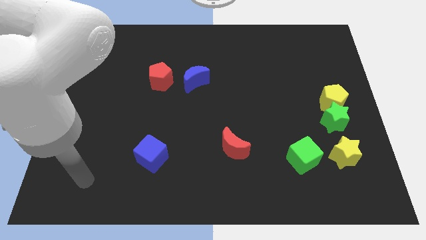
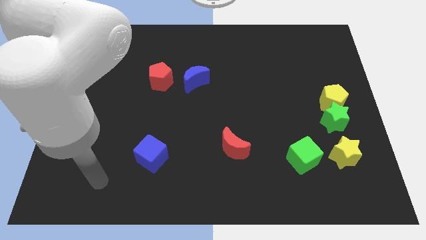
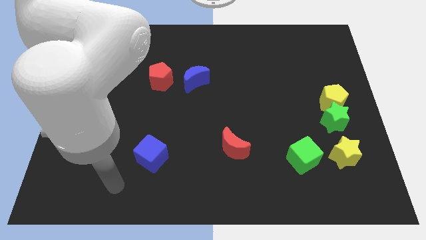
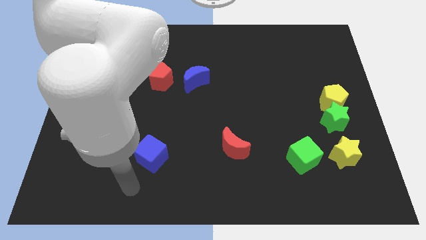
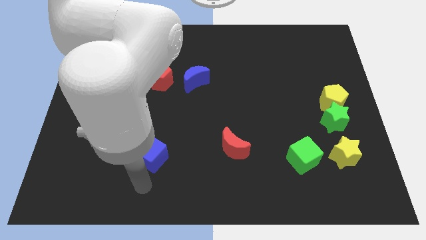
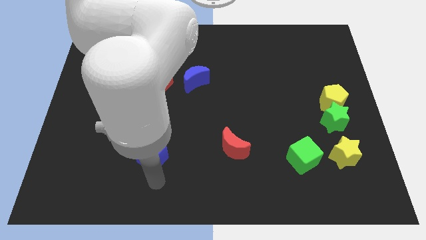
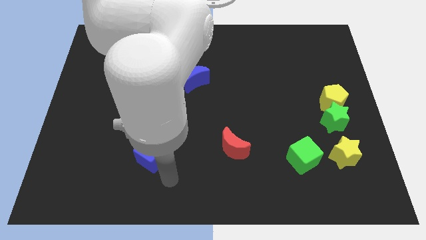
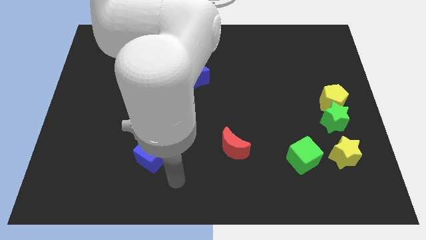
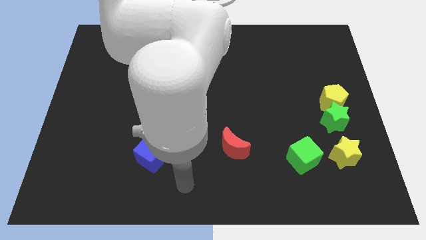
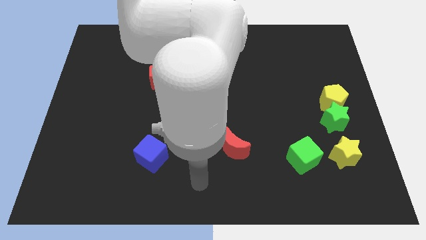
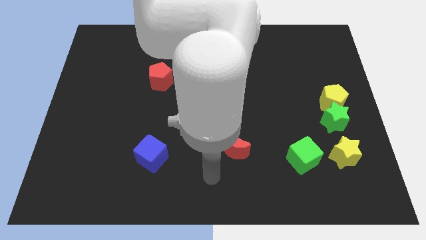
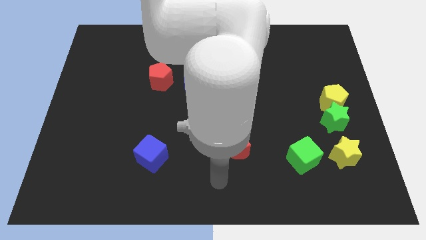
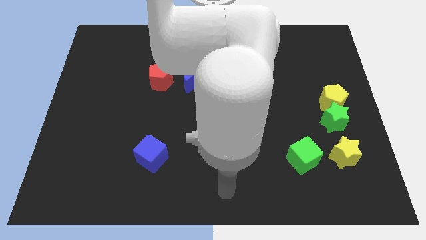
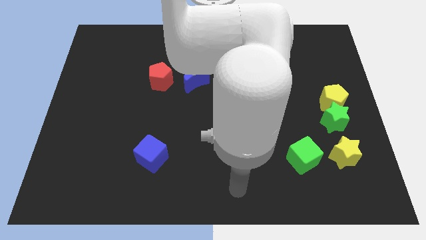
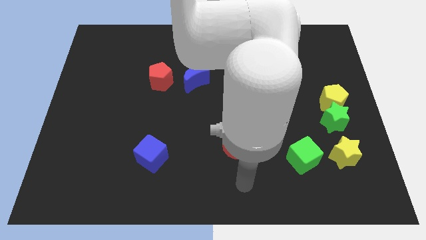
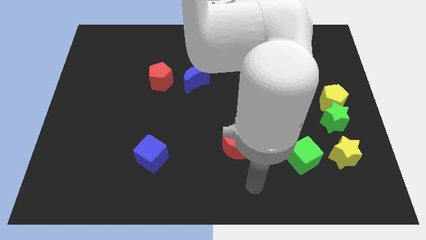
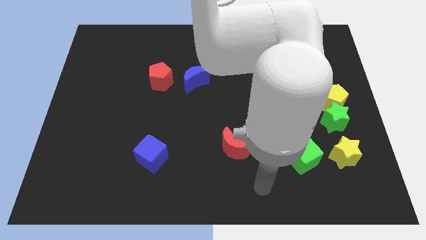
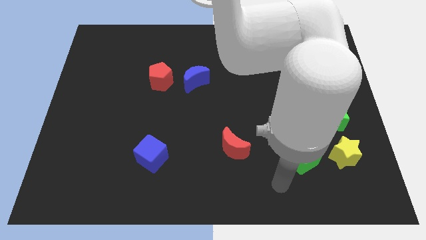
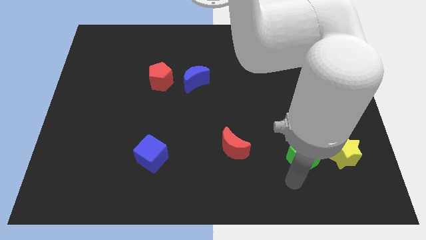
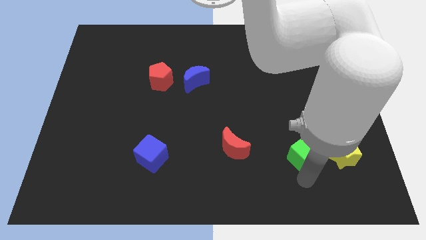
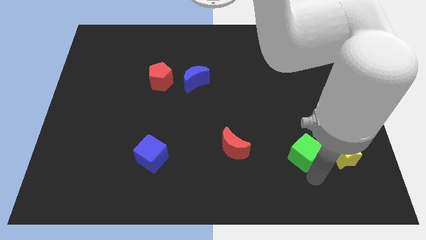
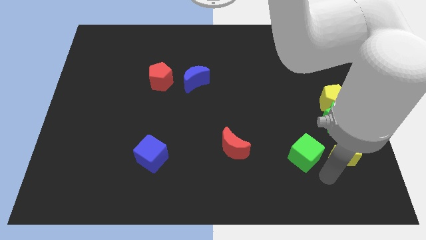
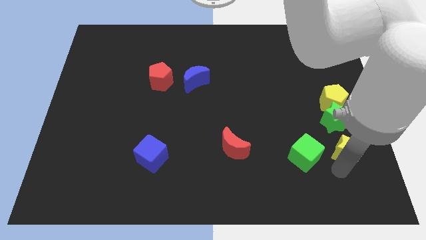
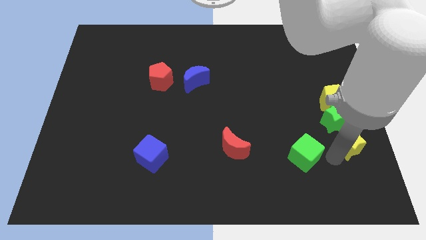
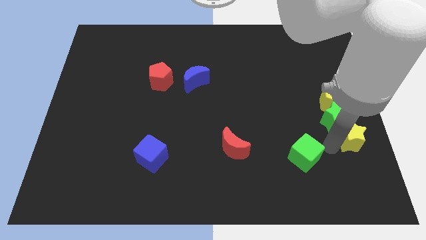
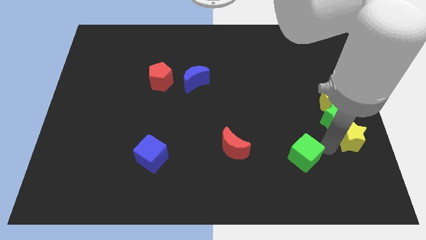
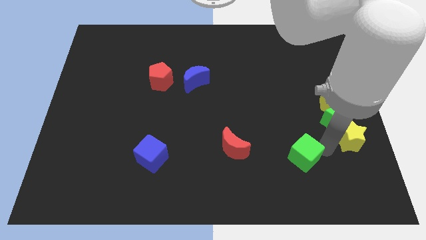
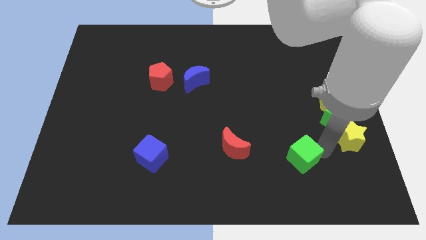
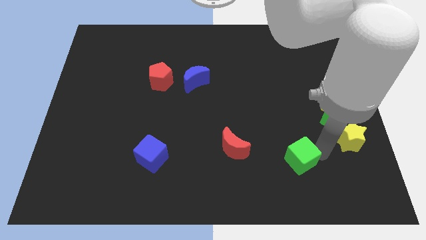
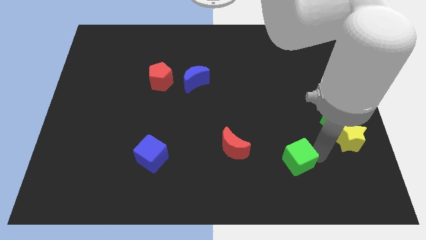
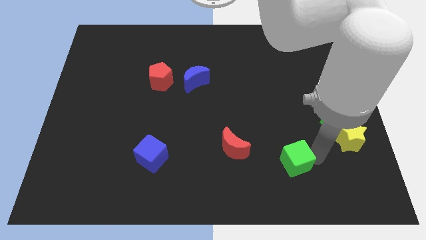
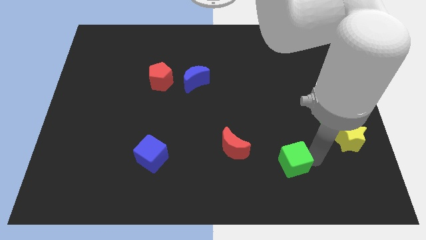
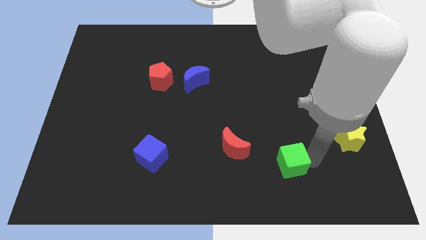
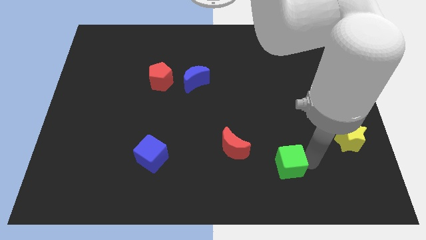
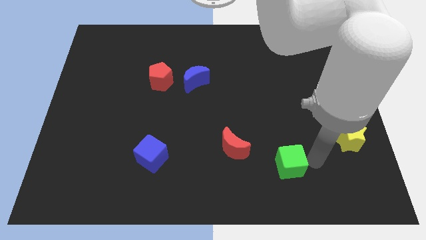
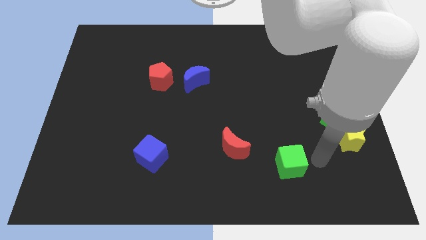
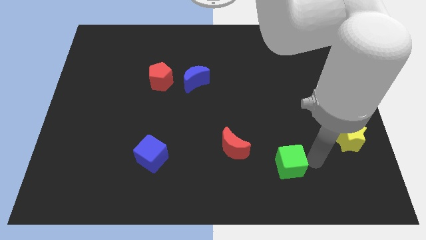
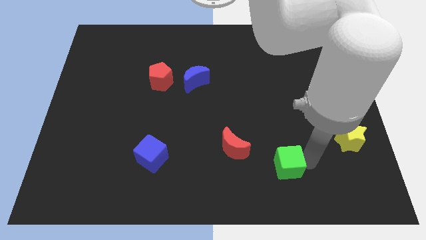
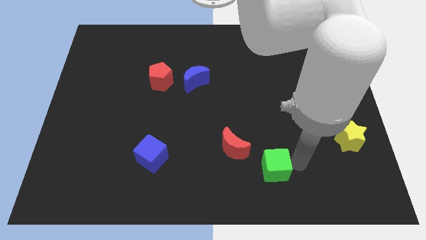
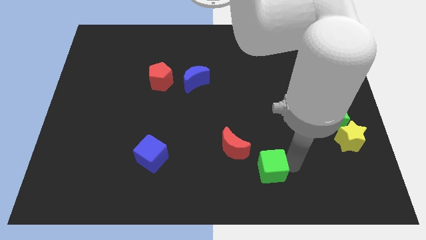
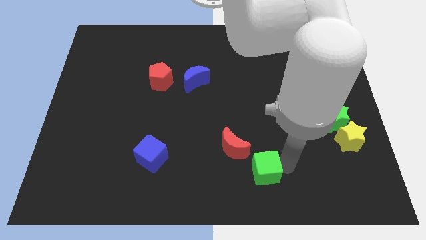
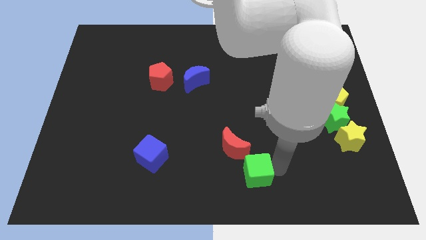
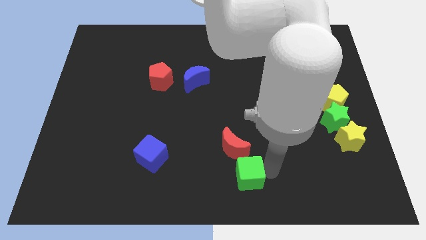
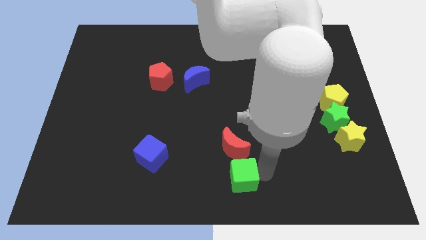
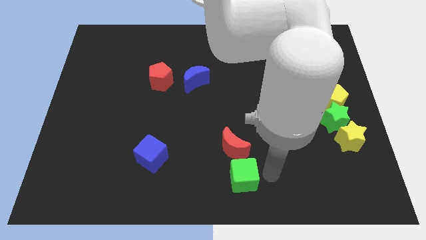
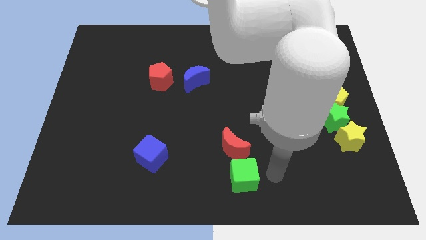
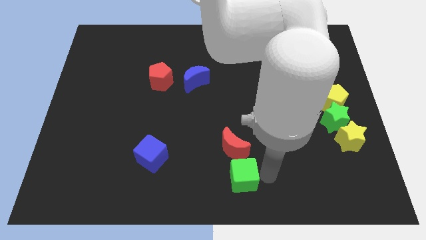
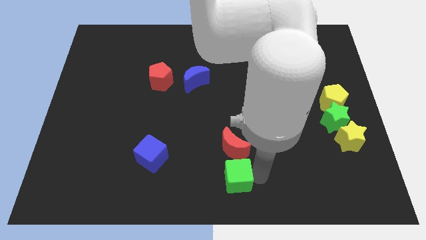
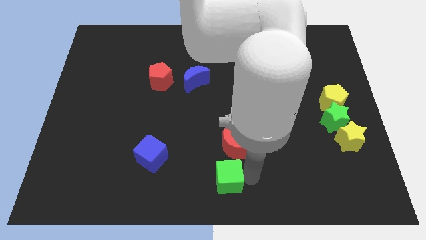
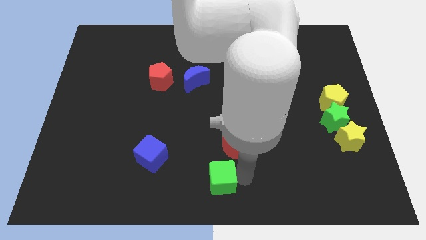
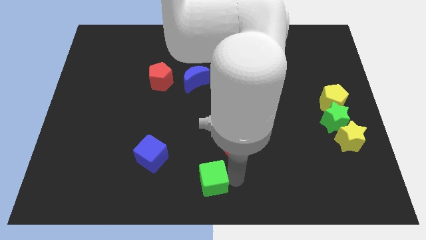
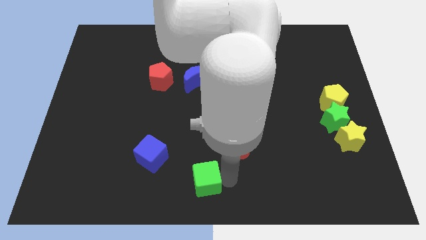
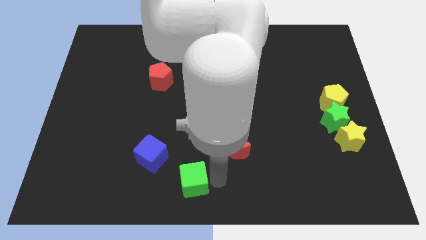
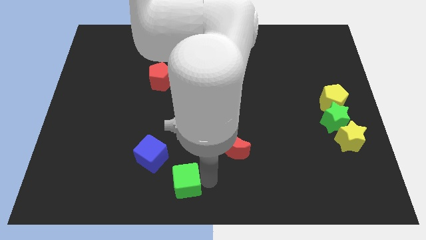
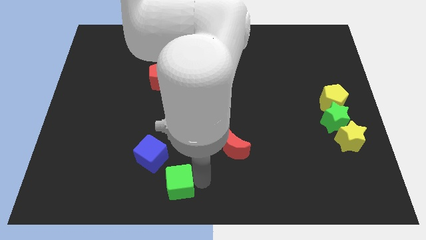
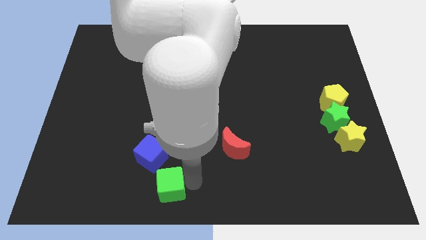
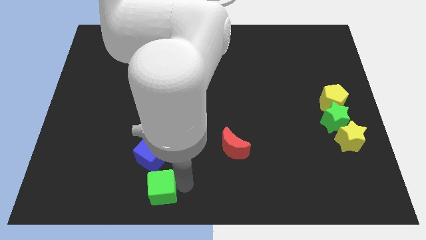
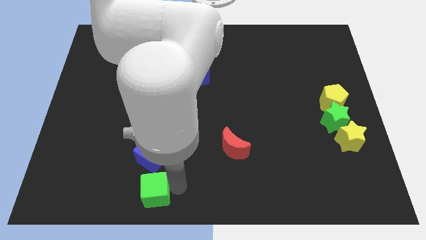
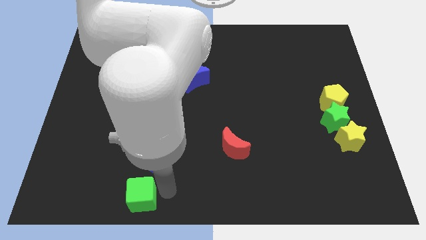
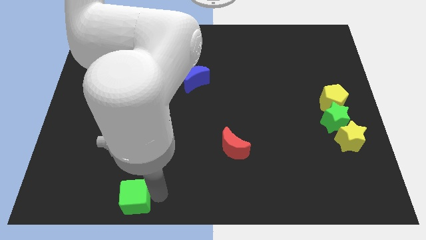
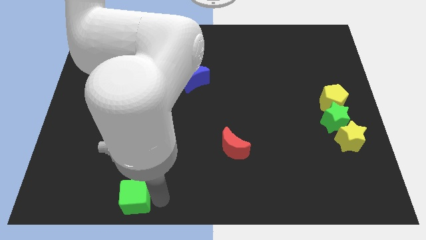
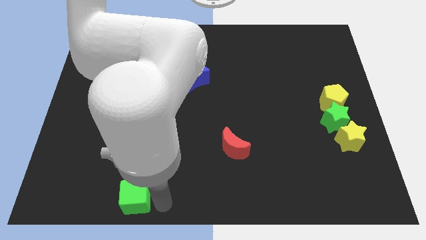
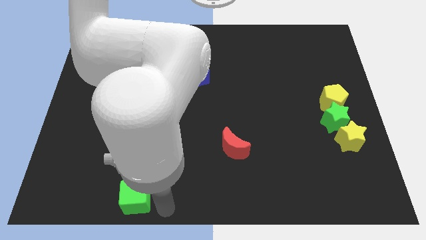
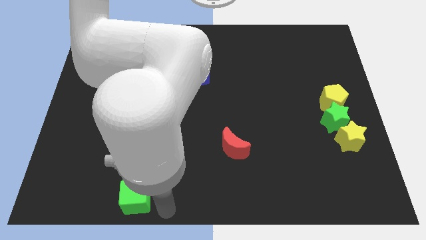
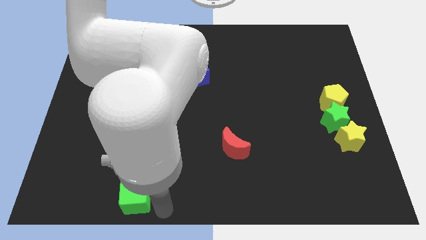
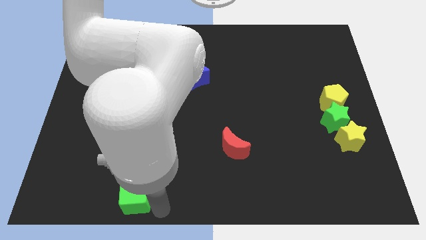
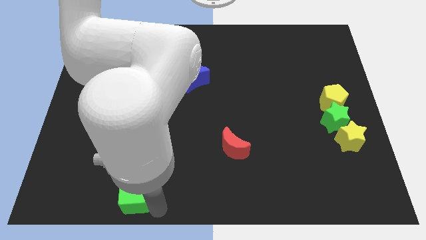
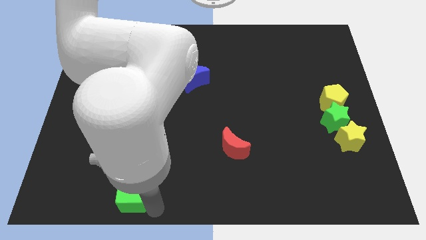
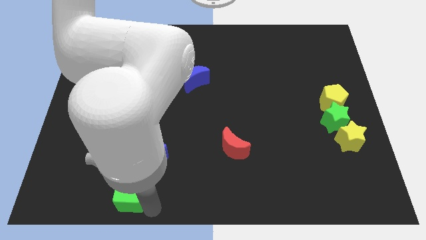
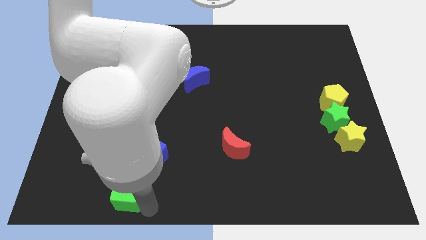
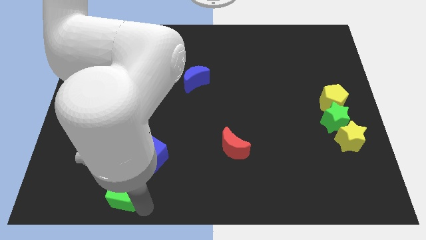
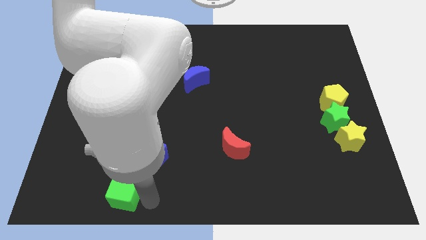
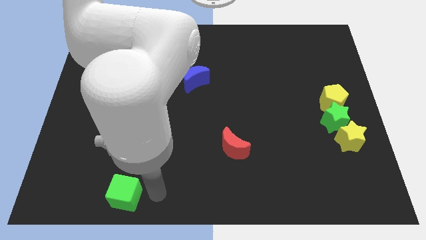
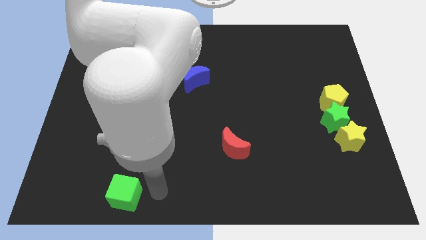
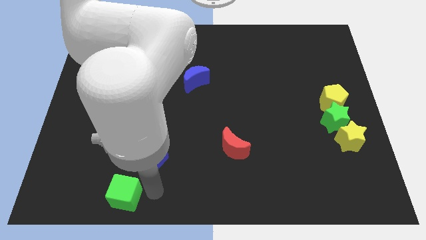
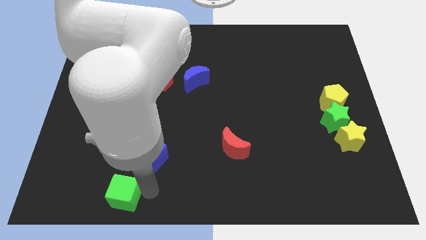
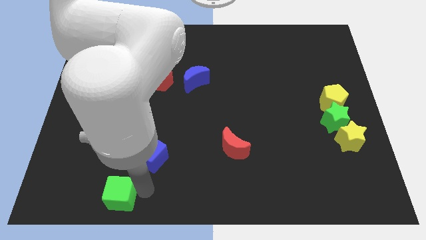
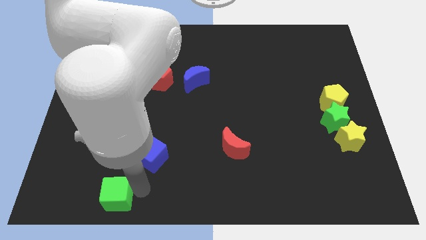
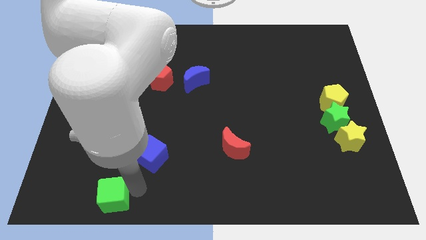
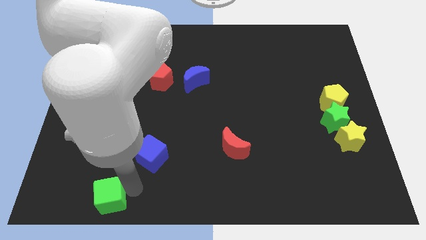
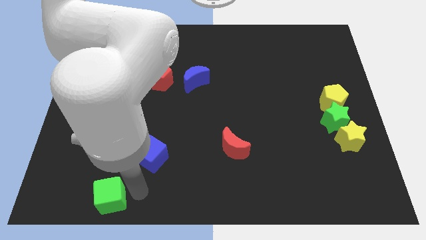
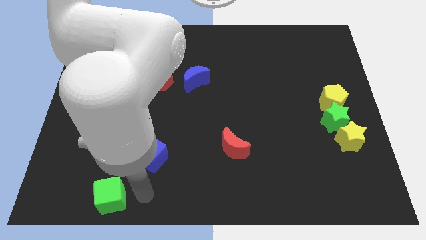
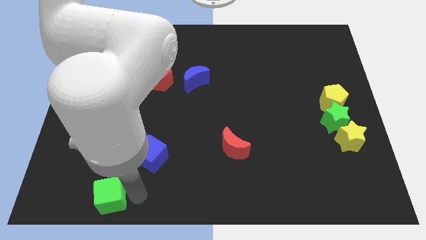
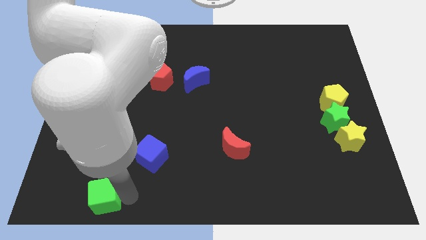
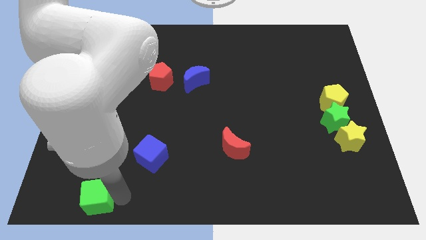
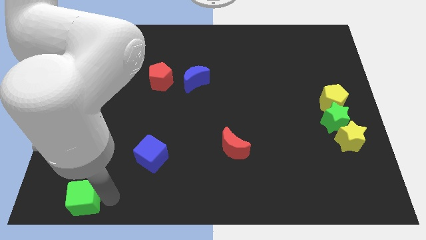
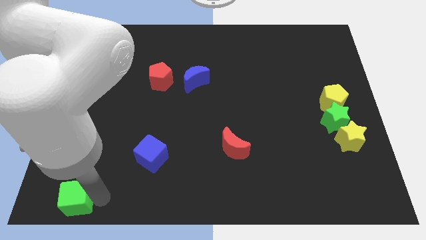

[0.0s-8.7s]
put the green cube to the bottom left
